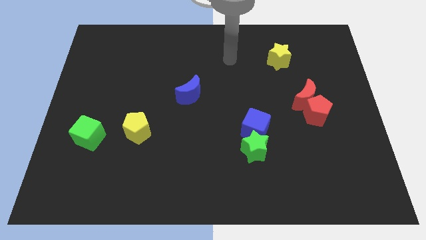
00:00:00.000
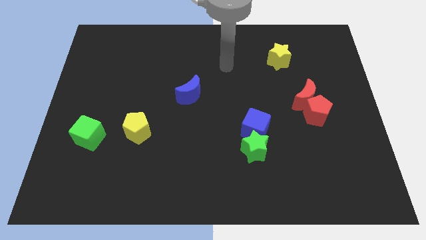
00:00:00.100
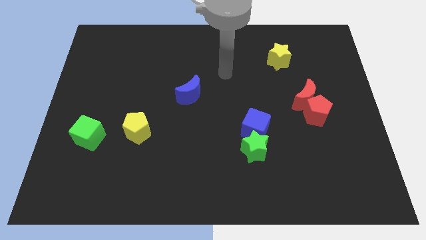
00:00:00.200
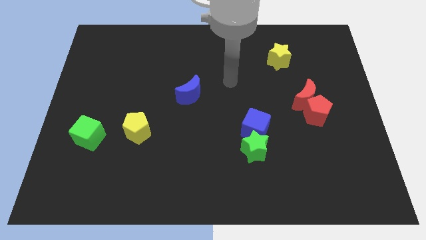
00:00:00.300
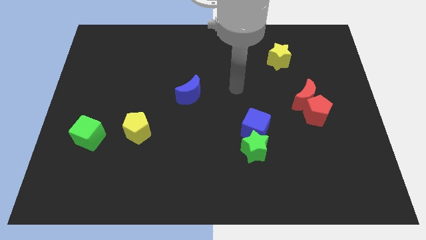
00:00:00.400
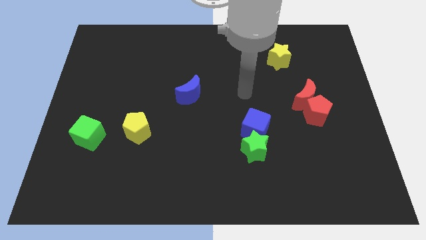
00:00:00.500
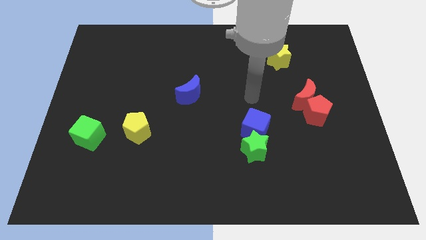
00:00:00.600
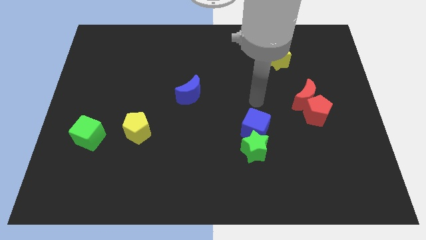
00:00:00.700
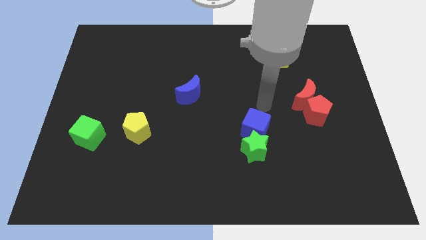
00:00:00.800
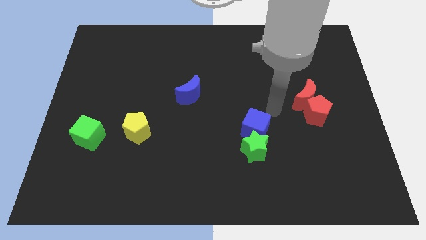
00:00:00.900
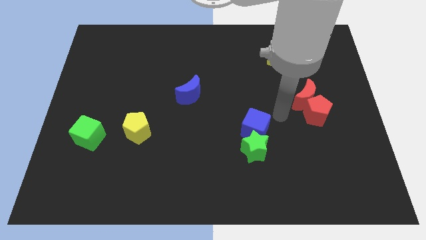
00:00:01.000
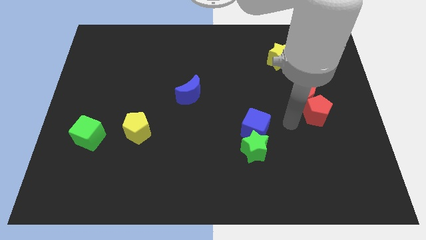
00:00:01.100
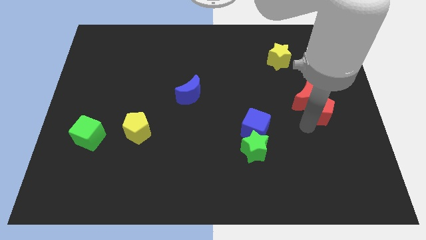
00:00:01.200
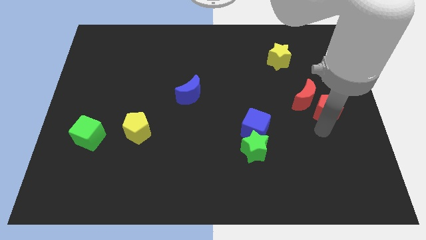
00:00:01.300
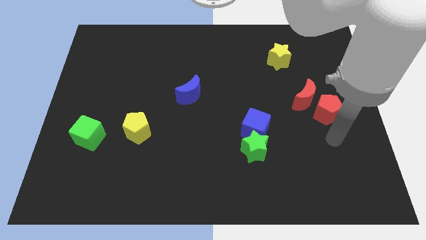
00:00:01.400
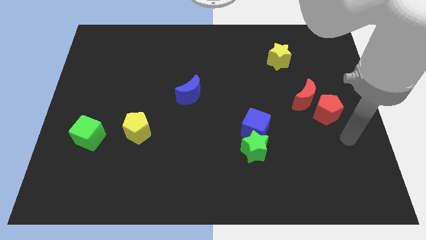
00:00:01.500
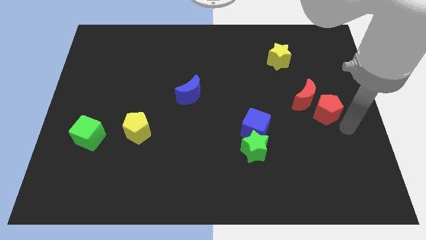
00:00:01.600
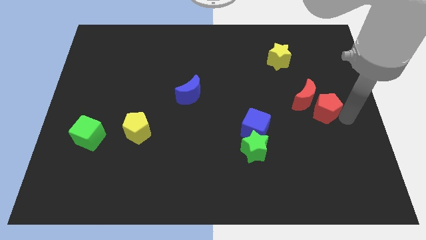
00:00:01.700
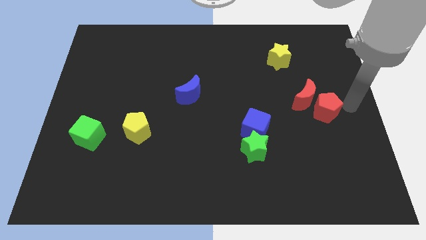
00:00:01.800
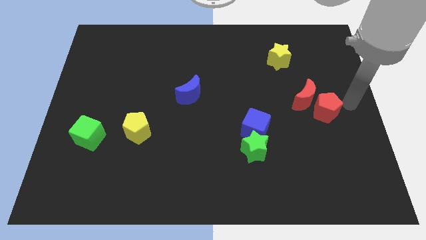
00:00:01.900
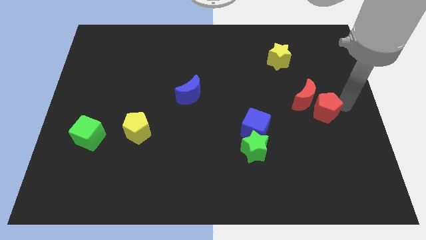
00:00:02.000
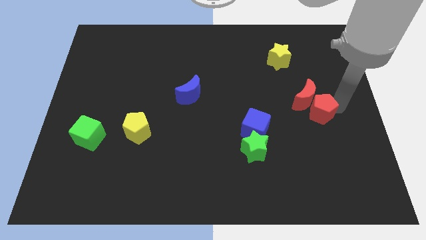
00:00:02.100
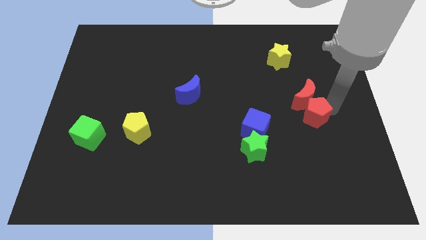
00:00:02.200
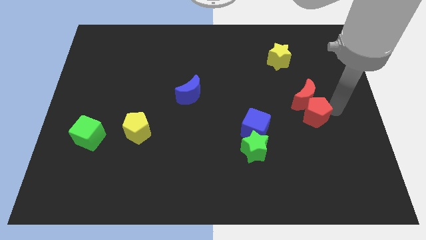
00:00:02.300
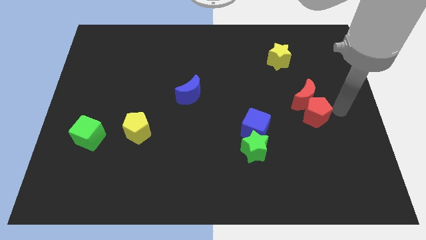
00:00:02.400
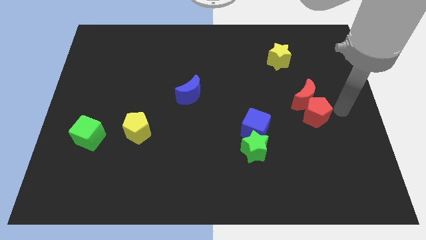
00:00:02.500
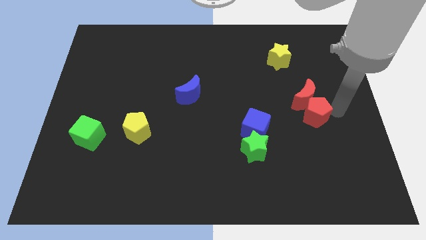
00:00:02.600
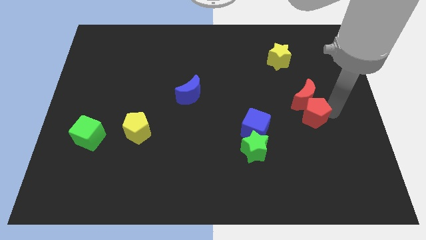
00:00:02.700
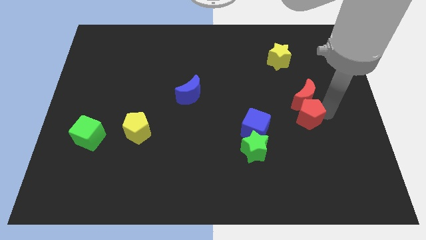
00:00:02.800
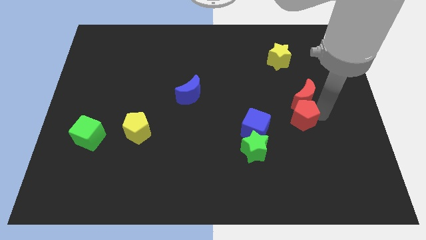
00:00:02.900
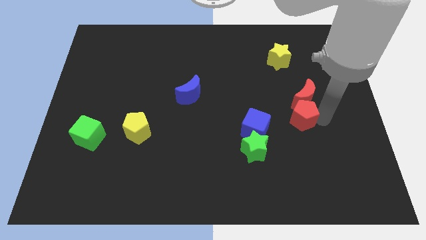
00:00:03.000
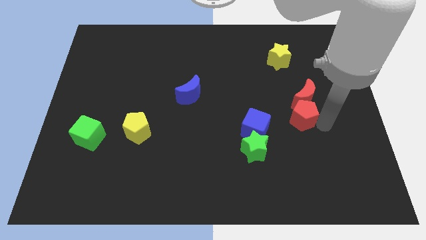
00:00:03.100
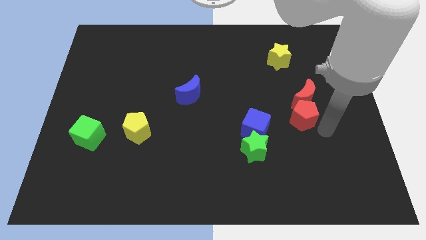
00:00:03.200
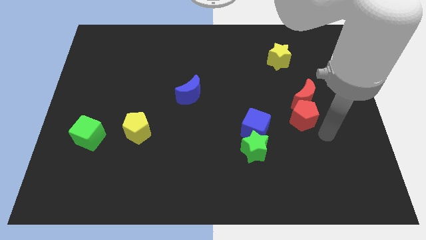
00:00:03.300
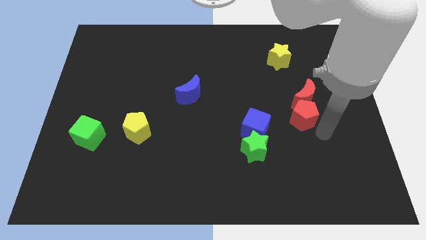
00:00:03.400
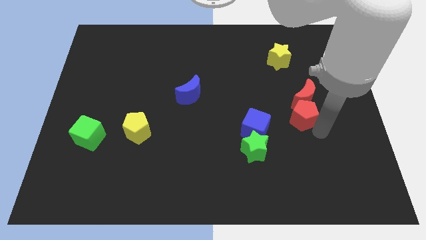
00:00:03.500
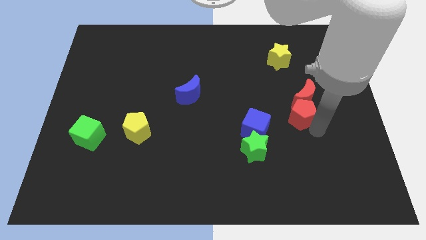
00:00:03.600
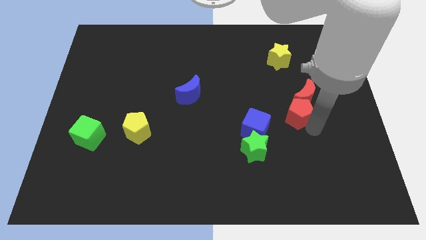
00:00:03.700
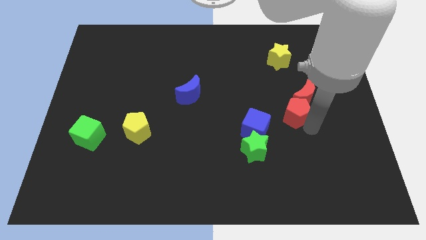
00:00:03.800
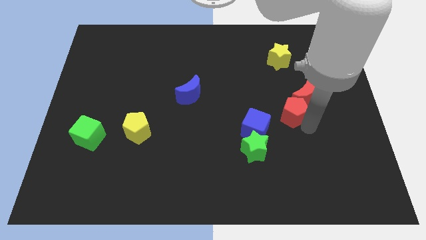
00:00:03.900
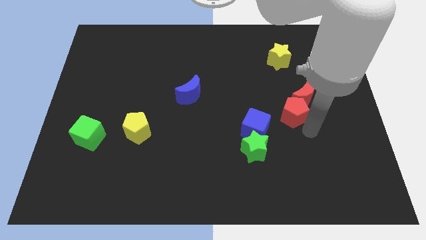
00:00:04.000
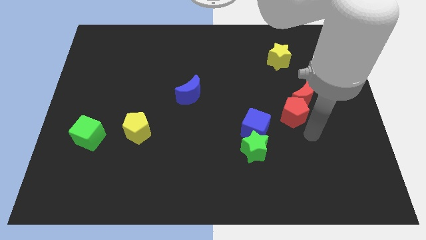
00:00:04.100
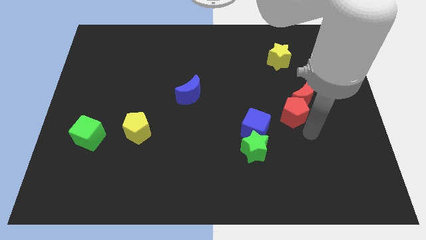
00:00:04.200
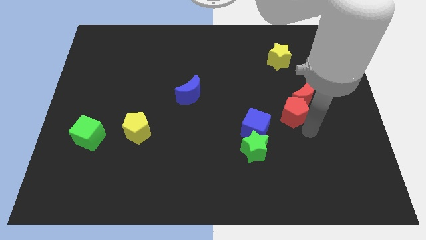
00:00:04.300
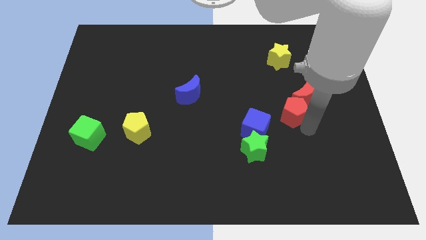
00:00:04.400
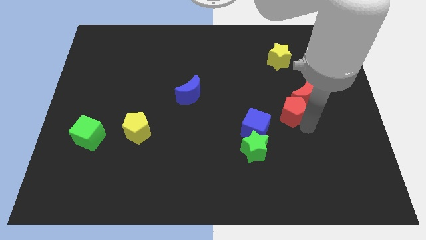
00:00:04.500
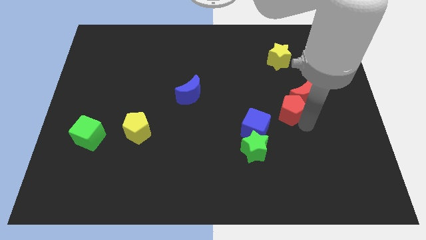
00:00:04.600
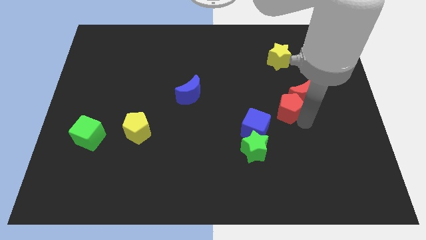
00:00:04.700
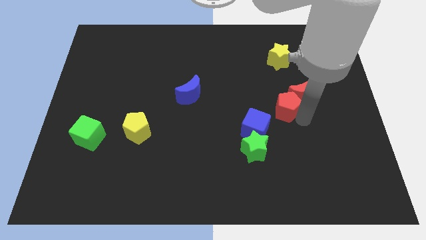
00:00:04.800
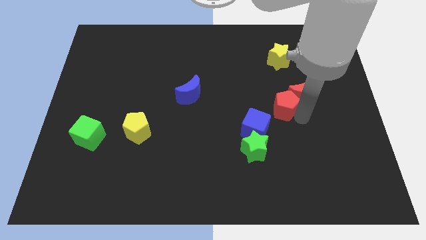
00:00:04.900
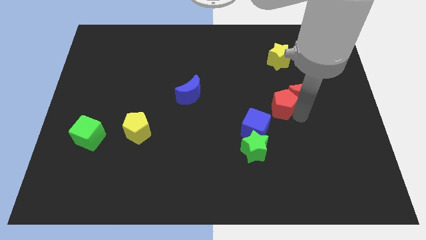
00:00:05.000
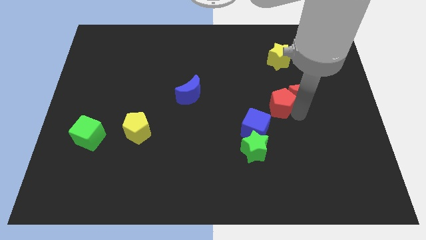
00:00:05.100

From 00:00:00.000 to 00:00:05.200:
slightly move the red pentagon upwards and to the left diagonally

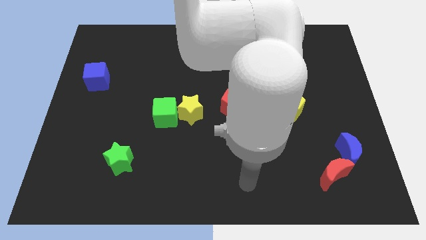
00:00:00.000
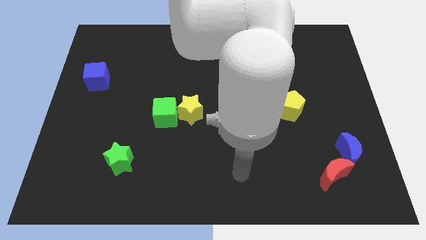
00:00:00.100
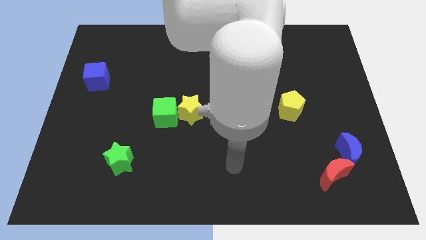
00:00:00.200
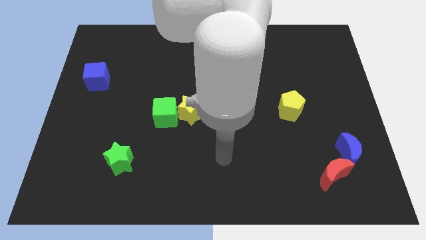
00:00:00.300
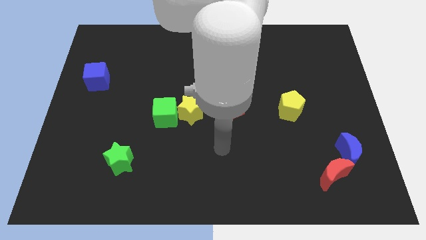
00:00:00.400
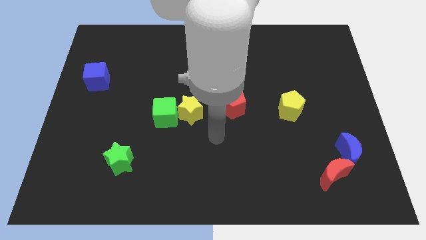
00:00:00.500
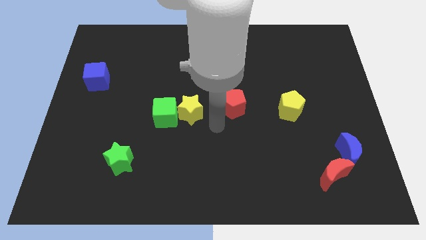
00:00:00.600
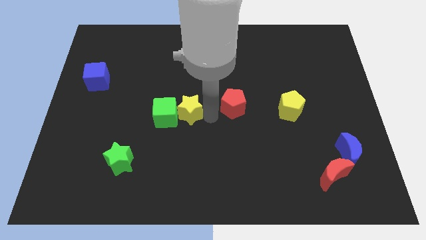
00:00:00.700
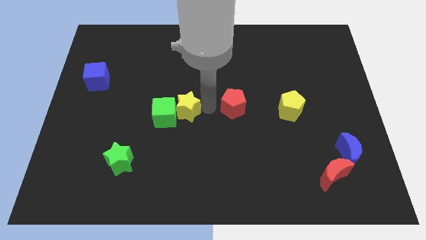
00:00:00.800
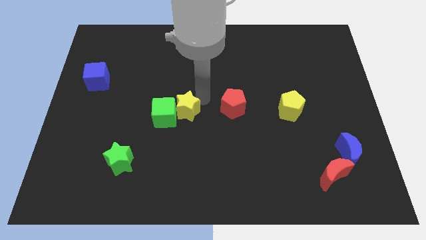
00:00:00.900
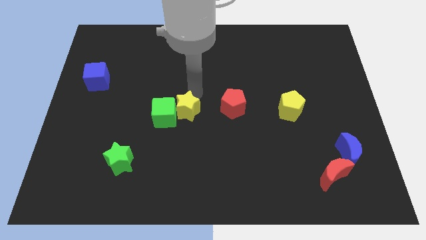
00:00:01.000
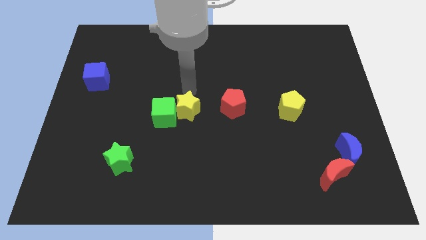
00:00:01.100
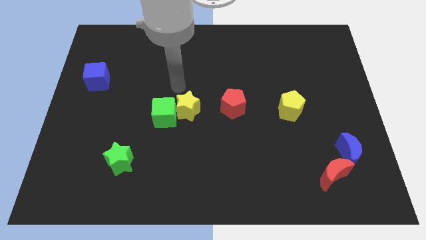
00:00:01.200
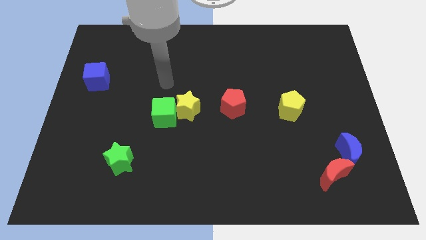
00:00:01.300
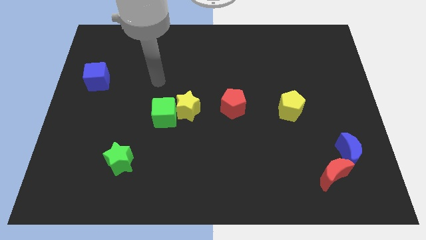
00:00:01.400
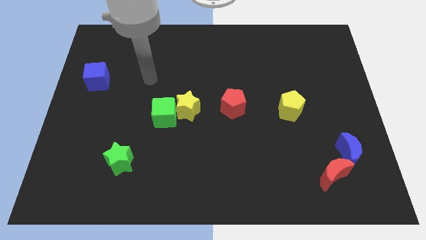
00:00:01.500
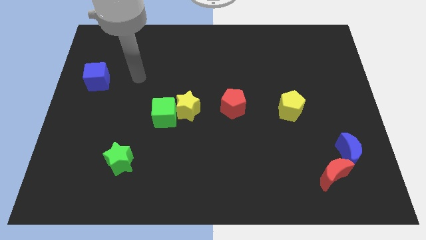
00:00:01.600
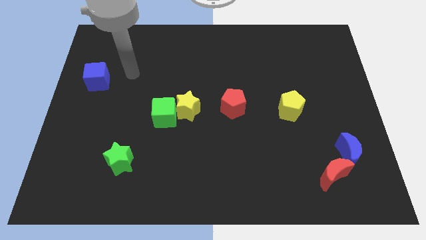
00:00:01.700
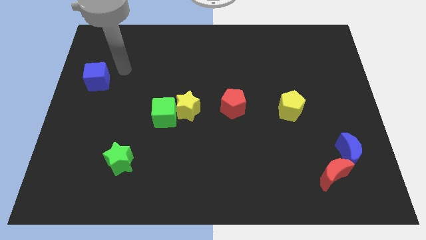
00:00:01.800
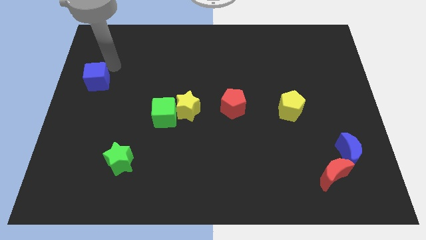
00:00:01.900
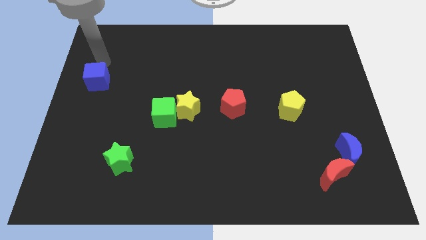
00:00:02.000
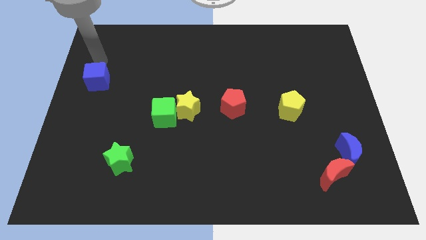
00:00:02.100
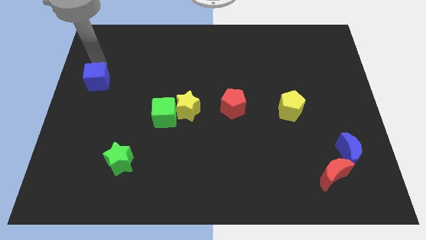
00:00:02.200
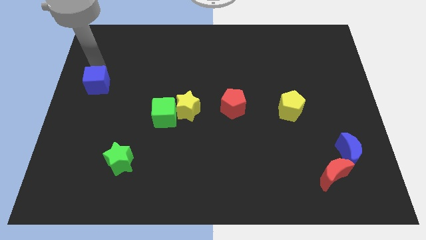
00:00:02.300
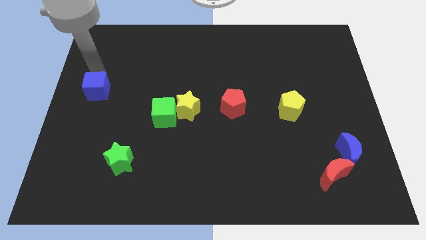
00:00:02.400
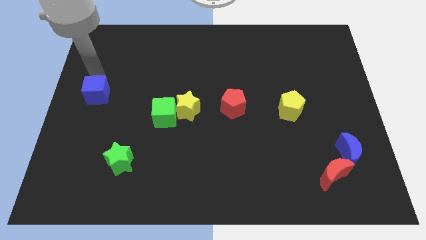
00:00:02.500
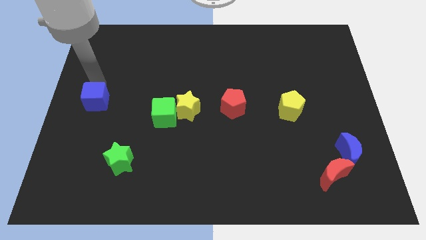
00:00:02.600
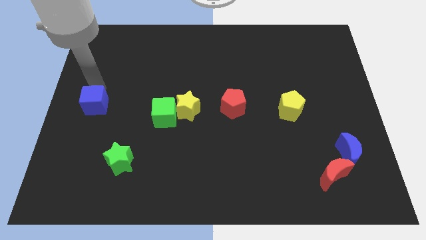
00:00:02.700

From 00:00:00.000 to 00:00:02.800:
push the blue cube down somewhat
